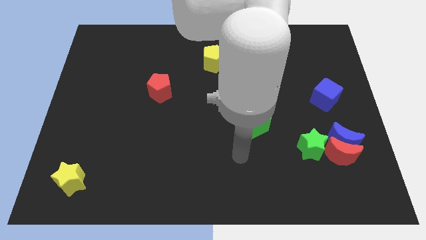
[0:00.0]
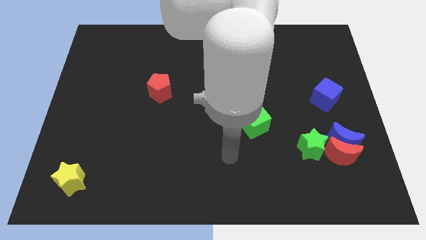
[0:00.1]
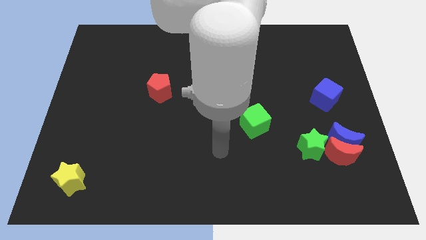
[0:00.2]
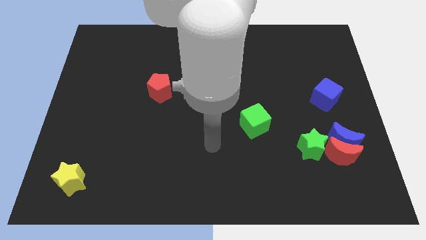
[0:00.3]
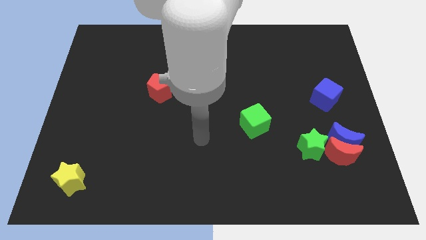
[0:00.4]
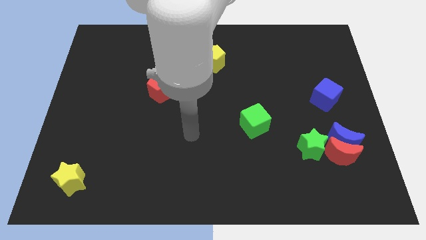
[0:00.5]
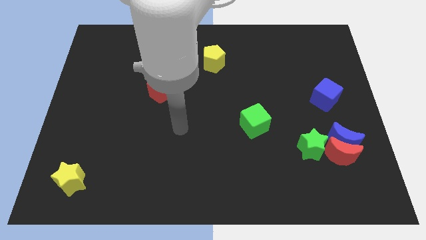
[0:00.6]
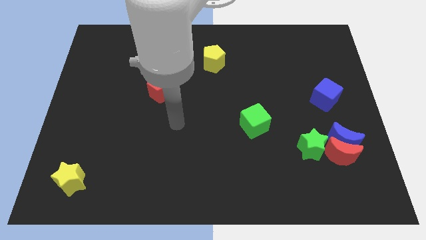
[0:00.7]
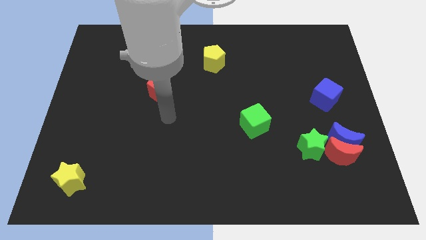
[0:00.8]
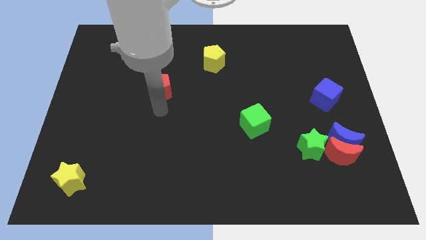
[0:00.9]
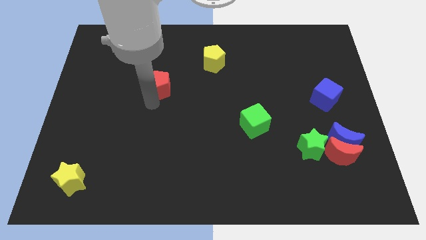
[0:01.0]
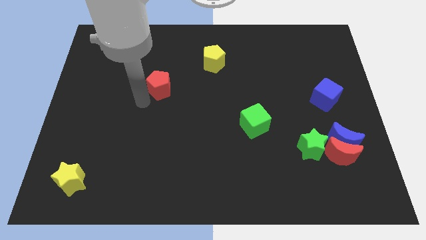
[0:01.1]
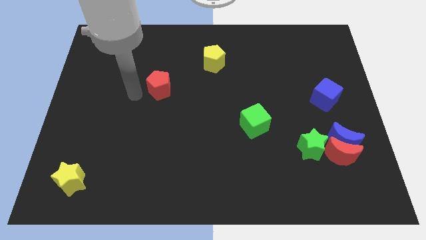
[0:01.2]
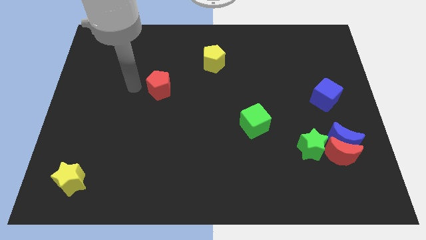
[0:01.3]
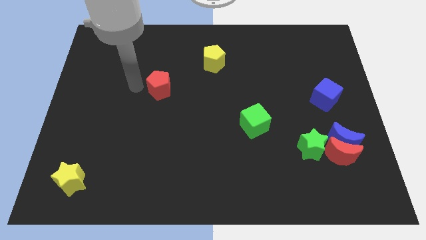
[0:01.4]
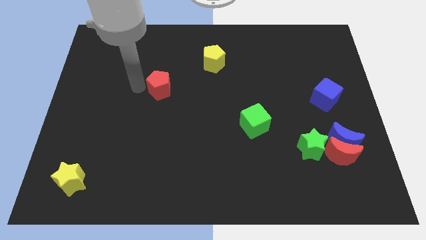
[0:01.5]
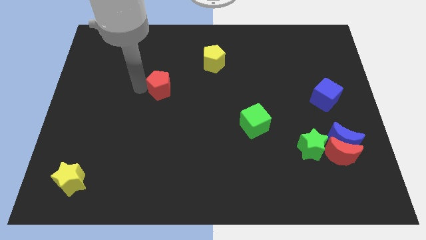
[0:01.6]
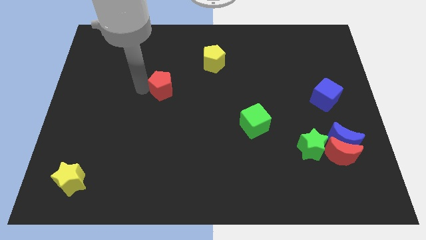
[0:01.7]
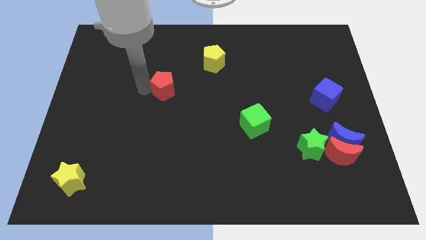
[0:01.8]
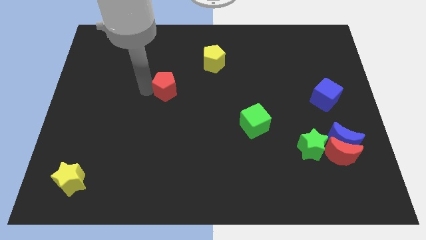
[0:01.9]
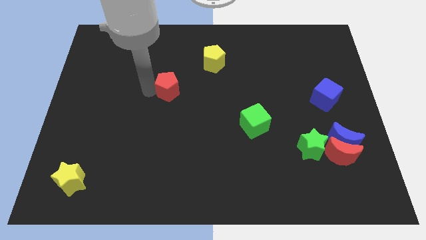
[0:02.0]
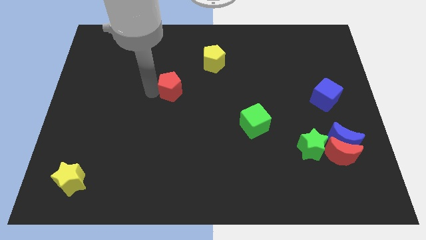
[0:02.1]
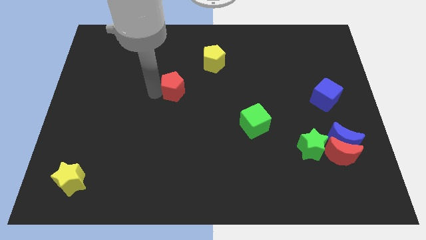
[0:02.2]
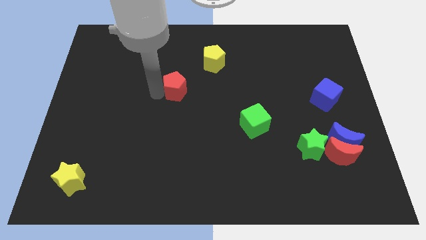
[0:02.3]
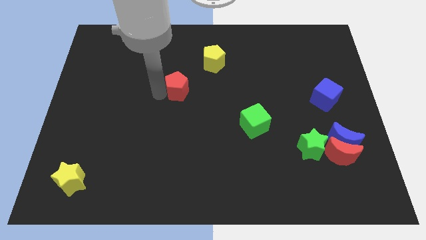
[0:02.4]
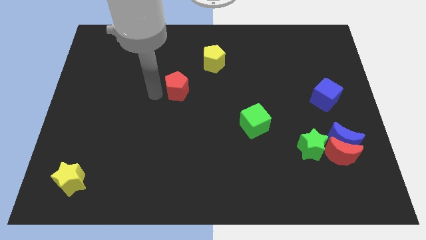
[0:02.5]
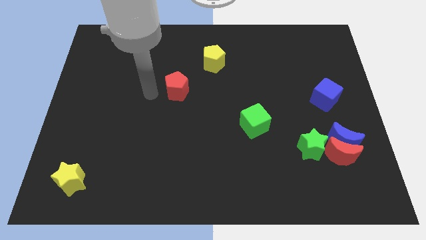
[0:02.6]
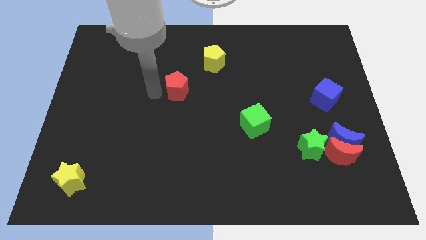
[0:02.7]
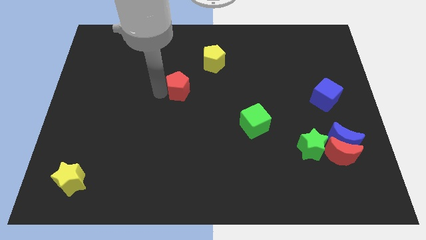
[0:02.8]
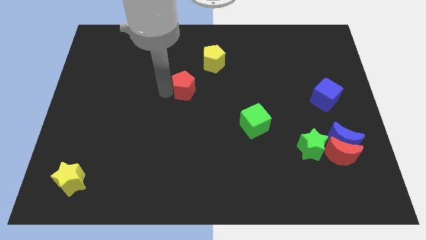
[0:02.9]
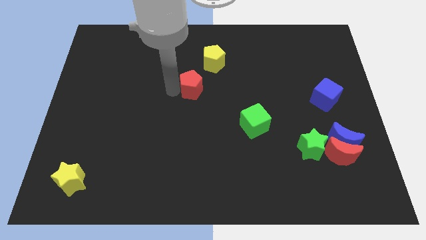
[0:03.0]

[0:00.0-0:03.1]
move the red pentagon a bit right

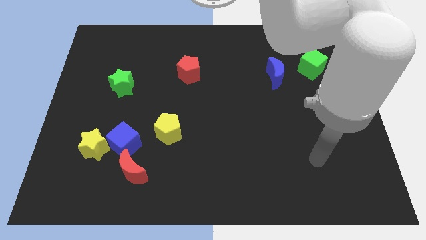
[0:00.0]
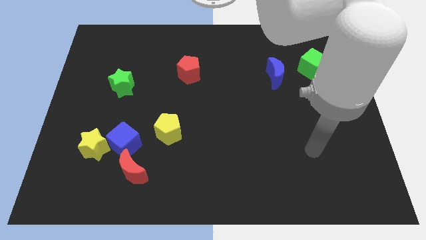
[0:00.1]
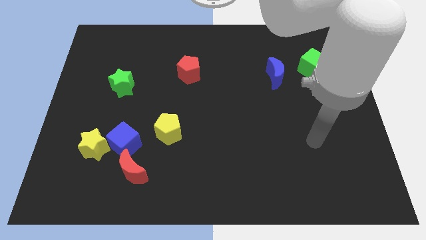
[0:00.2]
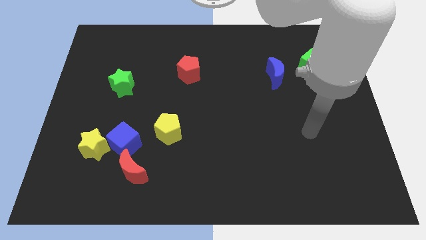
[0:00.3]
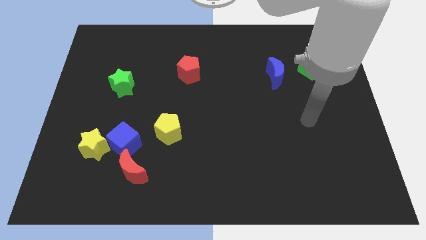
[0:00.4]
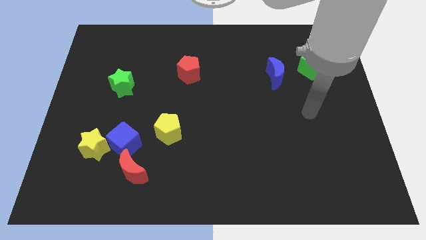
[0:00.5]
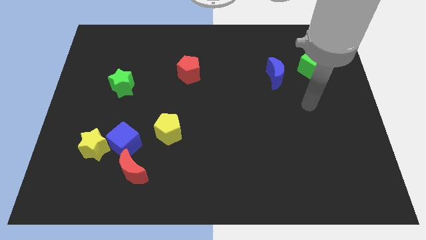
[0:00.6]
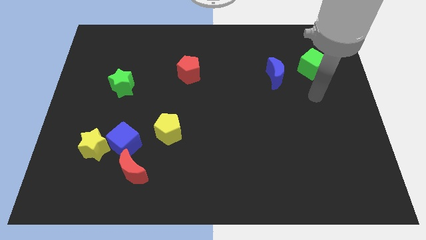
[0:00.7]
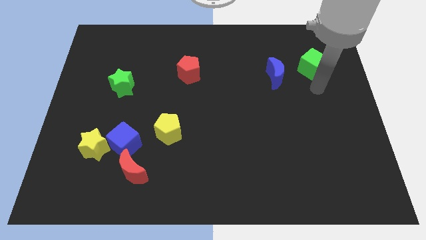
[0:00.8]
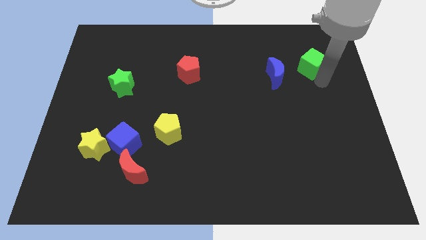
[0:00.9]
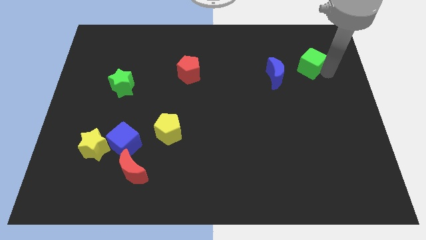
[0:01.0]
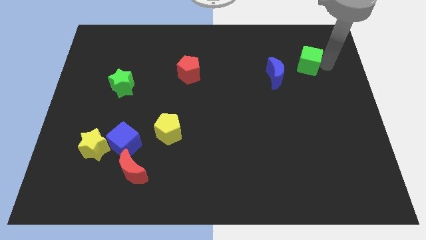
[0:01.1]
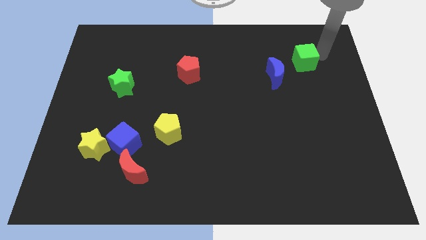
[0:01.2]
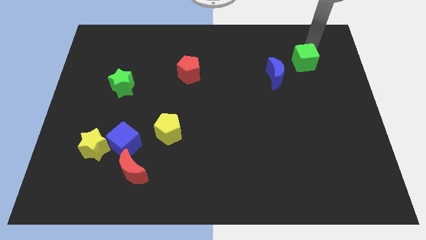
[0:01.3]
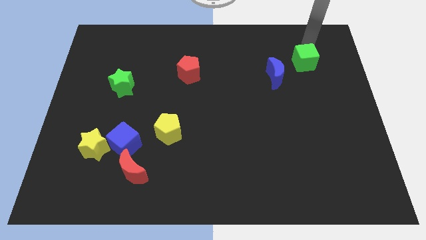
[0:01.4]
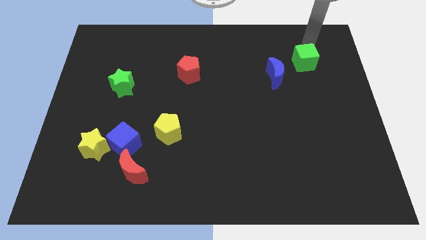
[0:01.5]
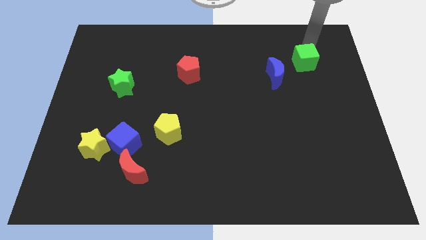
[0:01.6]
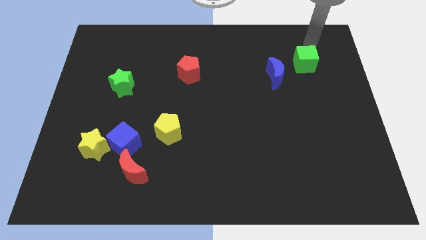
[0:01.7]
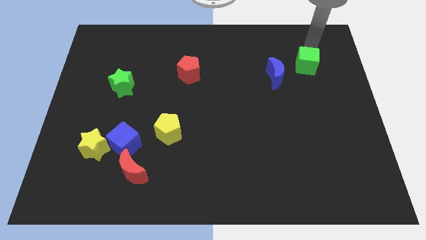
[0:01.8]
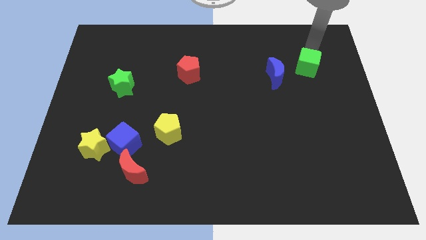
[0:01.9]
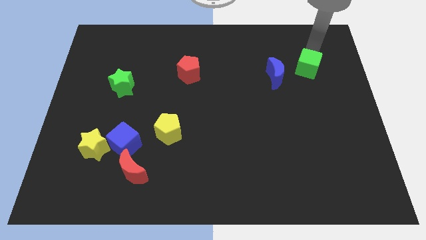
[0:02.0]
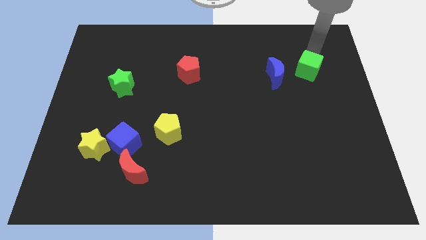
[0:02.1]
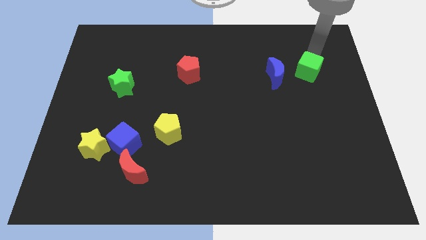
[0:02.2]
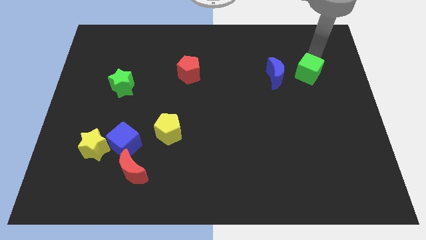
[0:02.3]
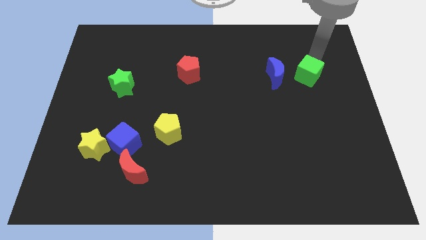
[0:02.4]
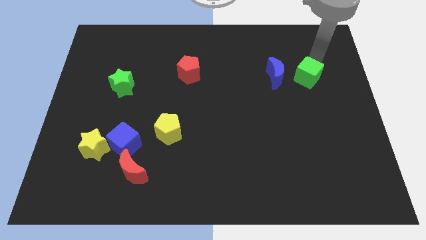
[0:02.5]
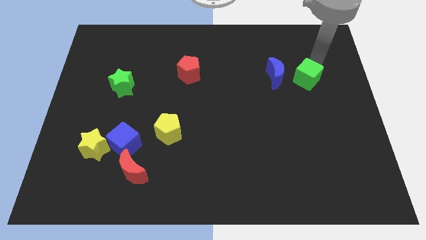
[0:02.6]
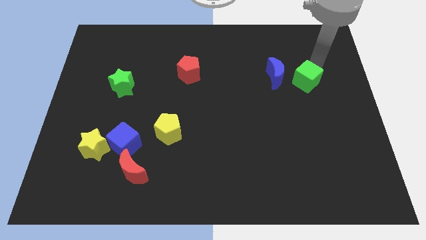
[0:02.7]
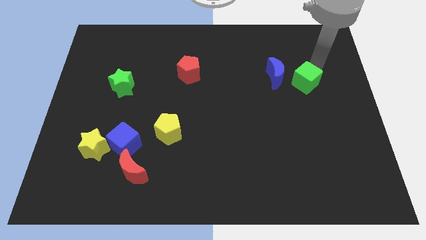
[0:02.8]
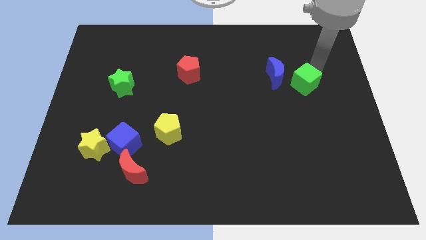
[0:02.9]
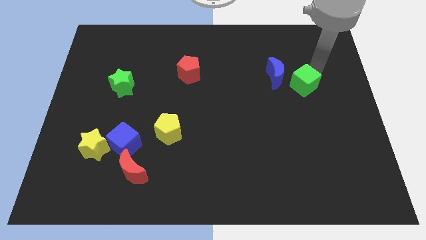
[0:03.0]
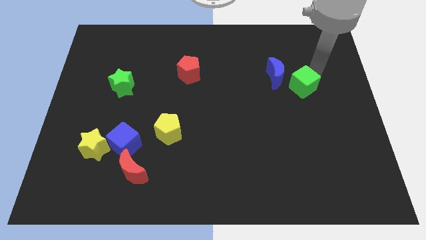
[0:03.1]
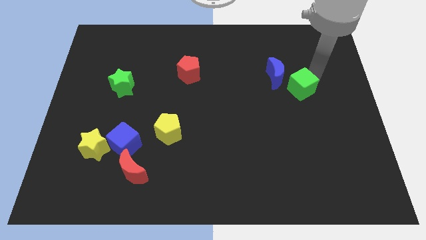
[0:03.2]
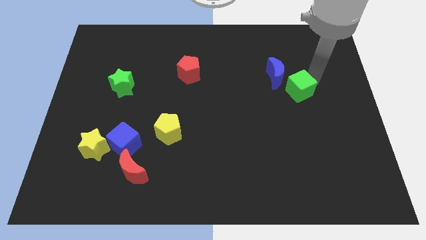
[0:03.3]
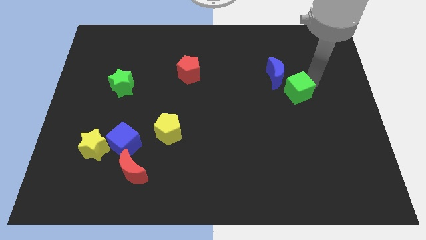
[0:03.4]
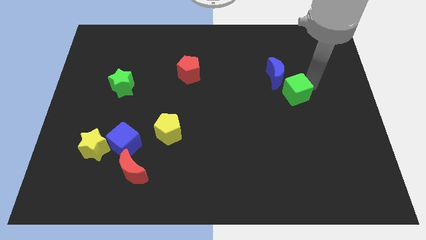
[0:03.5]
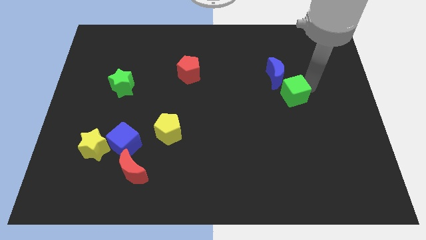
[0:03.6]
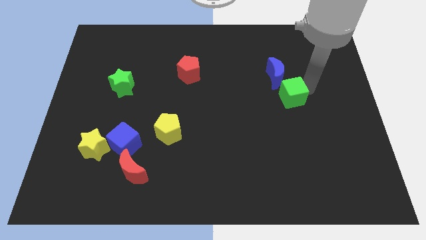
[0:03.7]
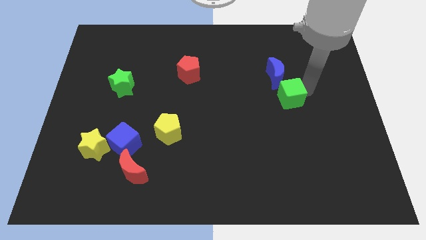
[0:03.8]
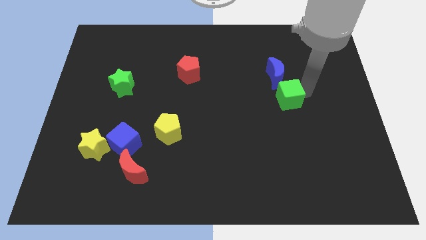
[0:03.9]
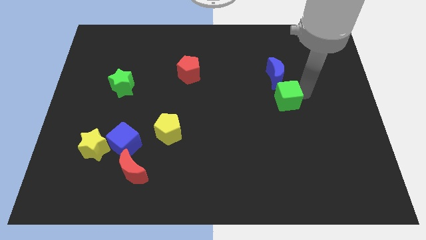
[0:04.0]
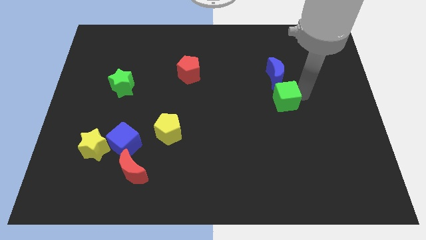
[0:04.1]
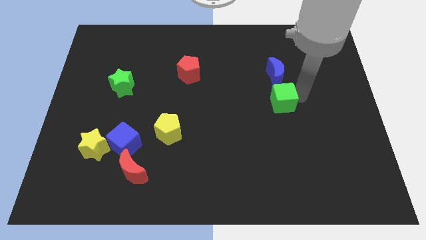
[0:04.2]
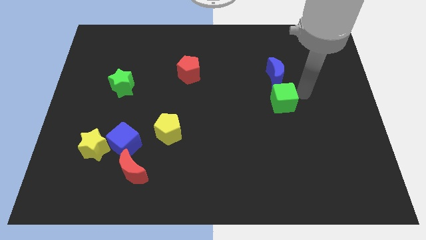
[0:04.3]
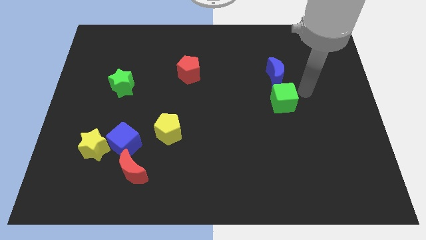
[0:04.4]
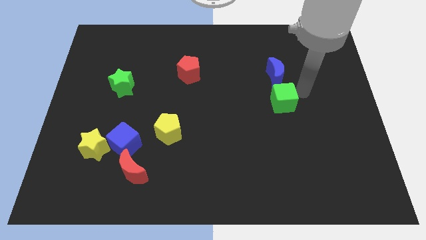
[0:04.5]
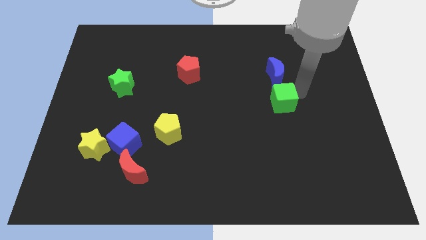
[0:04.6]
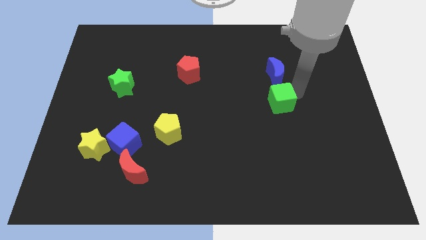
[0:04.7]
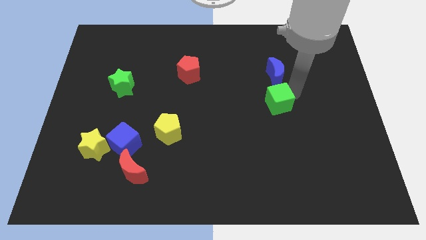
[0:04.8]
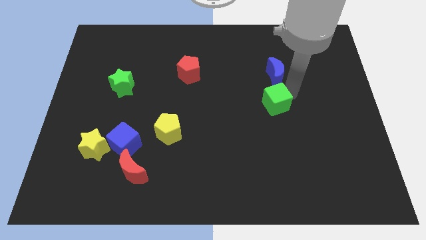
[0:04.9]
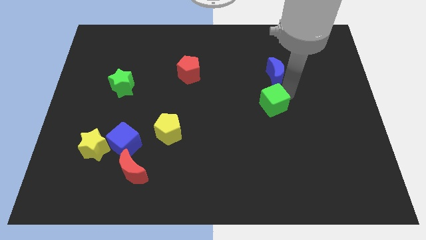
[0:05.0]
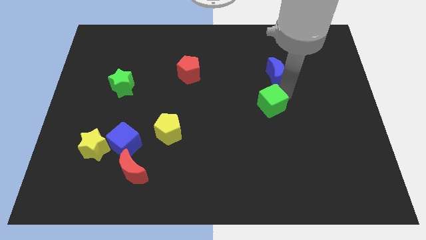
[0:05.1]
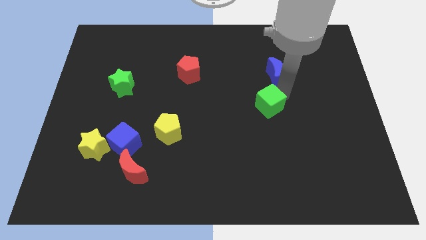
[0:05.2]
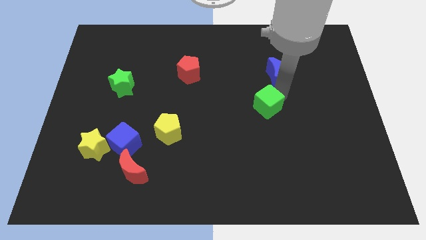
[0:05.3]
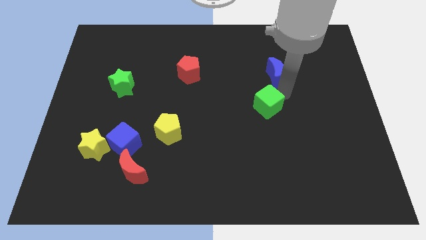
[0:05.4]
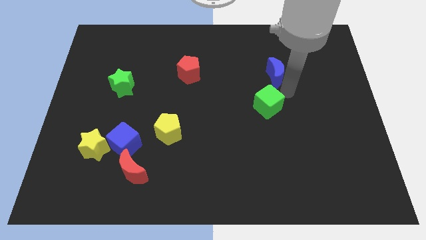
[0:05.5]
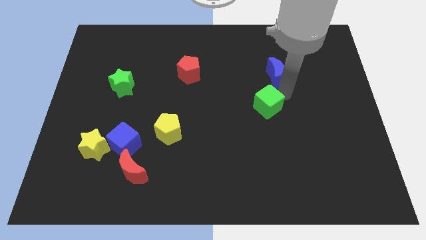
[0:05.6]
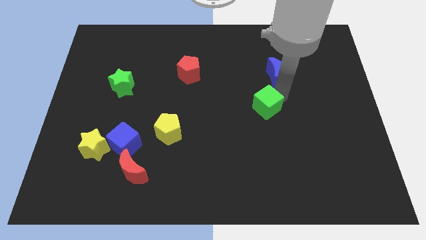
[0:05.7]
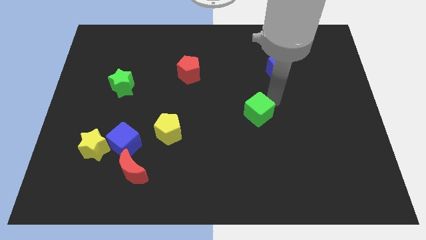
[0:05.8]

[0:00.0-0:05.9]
move the green cube diagonally downwards and left
